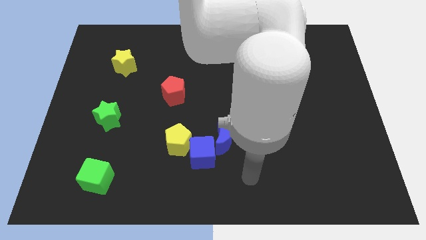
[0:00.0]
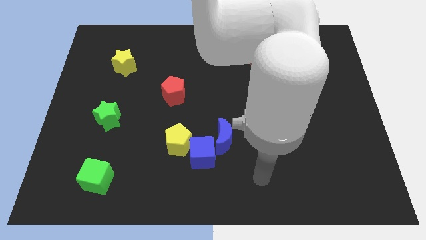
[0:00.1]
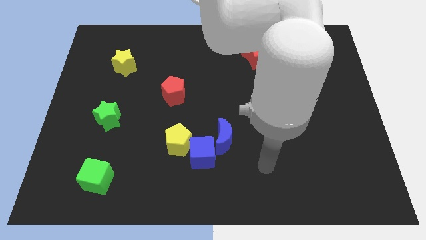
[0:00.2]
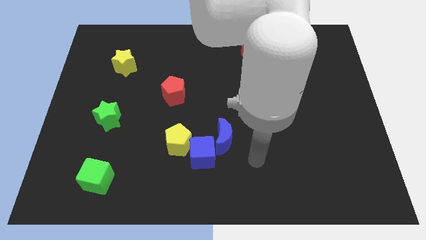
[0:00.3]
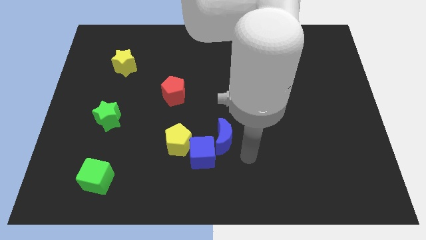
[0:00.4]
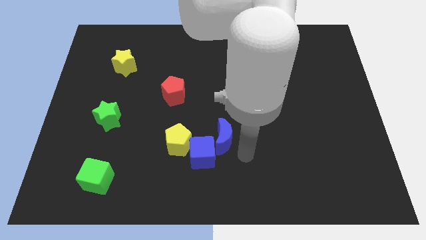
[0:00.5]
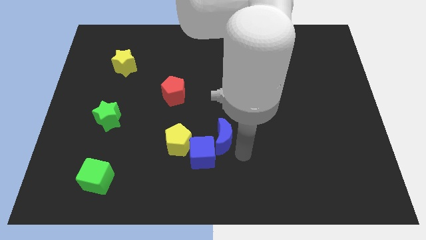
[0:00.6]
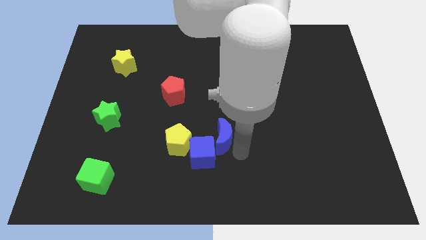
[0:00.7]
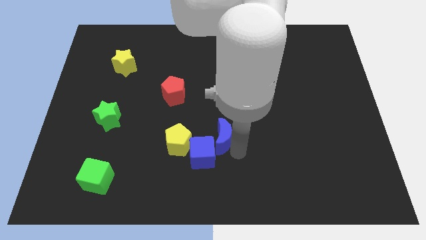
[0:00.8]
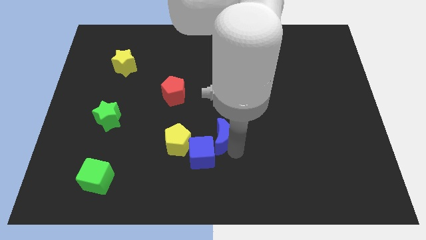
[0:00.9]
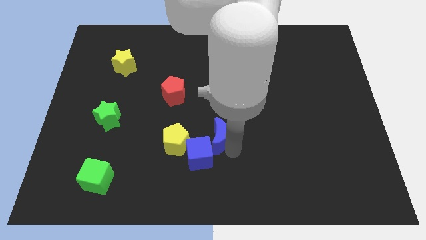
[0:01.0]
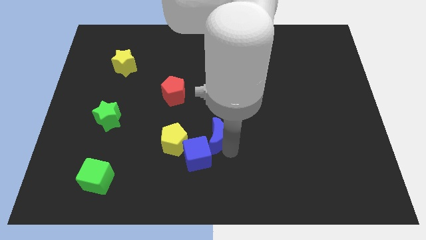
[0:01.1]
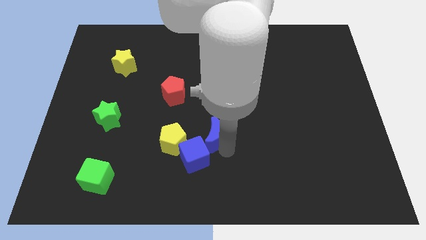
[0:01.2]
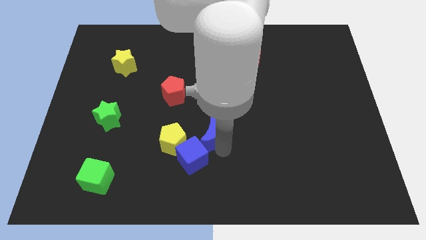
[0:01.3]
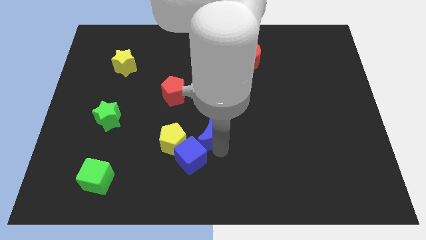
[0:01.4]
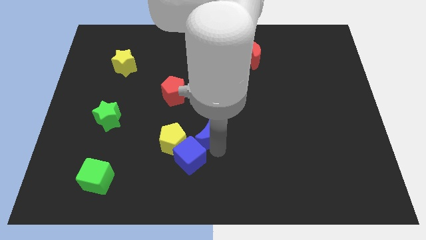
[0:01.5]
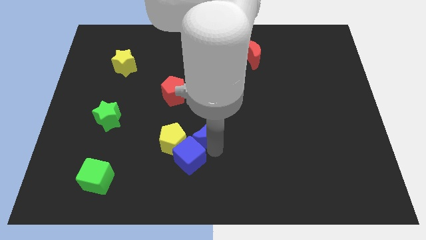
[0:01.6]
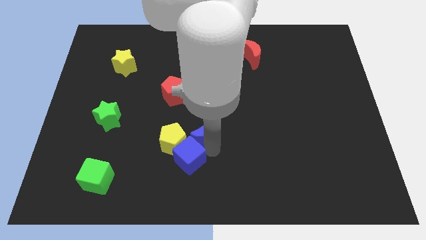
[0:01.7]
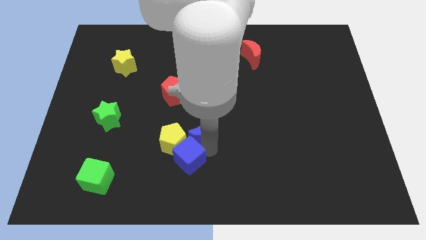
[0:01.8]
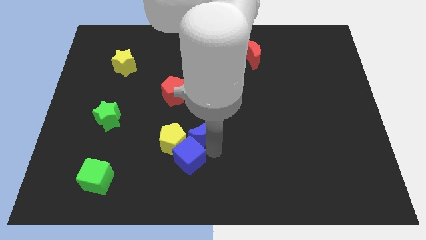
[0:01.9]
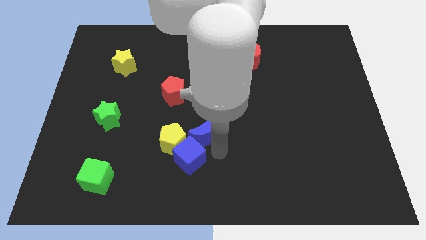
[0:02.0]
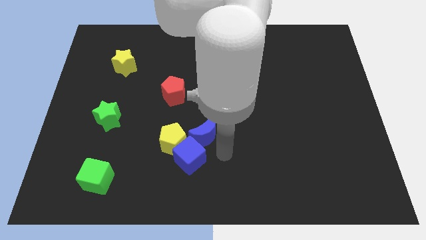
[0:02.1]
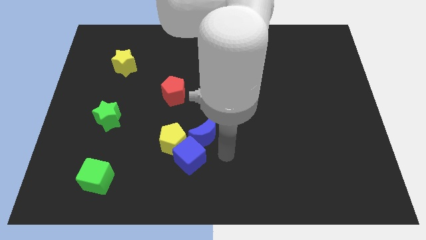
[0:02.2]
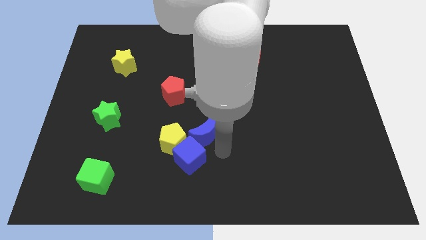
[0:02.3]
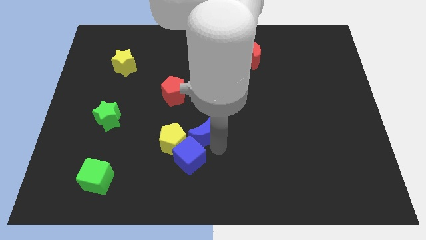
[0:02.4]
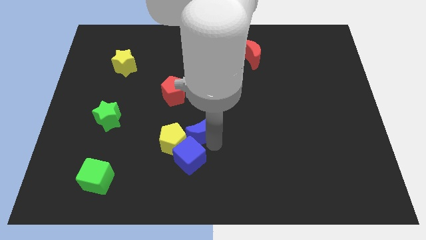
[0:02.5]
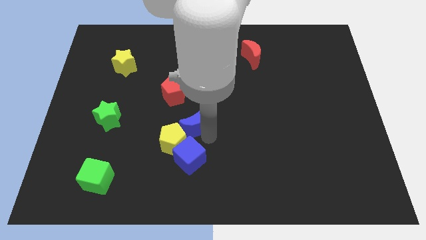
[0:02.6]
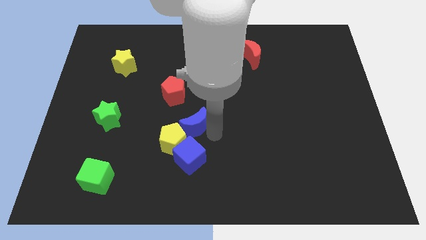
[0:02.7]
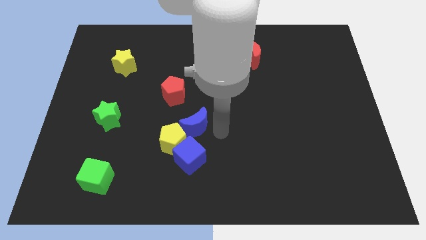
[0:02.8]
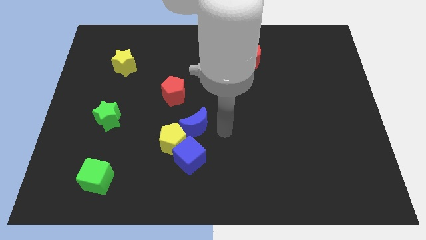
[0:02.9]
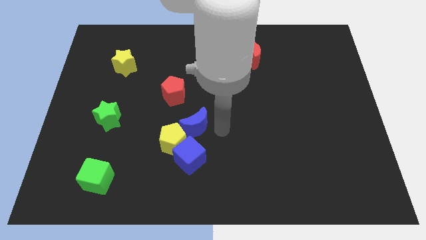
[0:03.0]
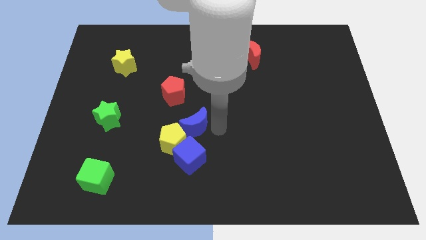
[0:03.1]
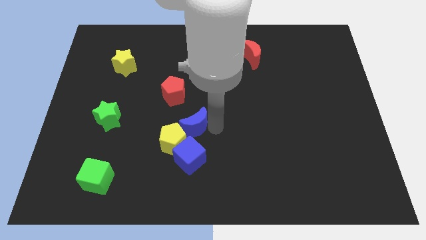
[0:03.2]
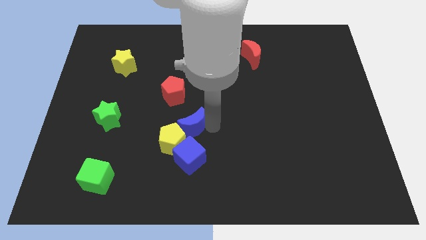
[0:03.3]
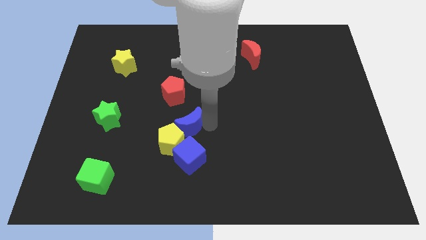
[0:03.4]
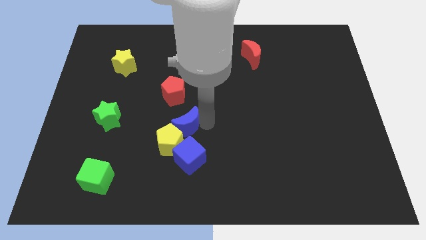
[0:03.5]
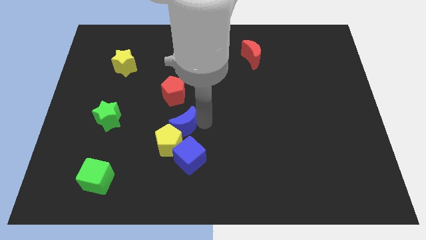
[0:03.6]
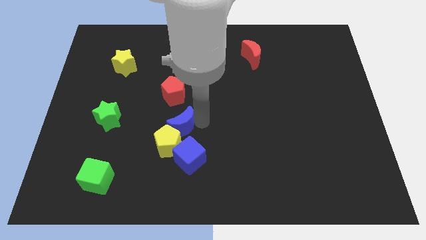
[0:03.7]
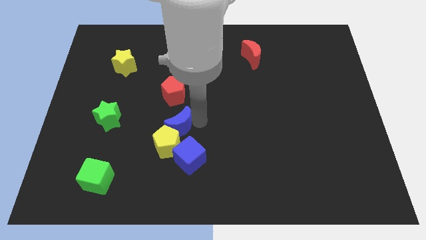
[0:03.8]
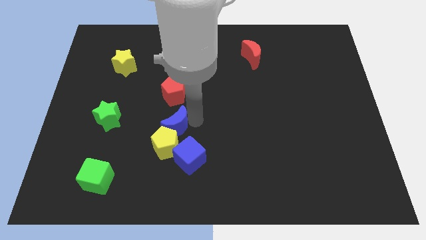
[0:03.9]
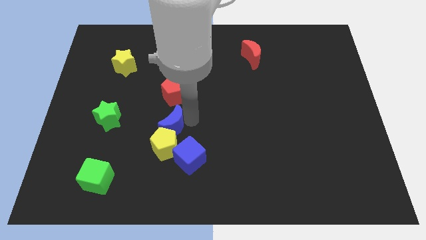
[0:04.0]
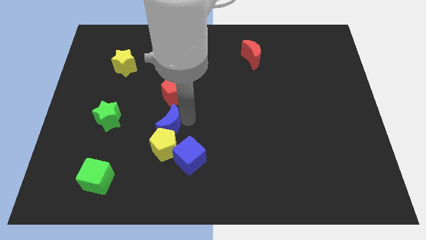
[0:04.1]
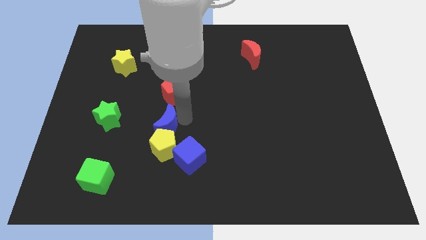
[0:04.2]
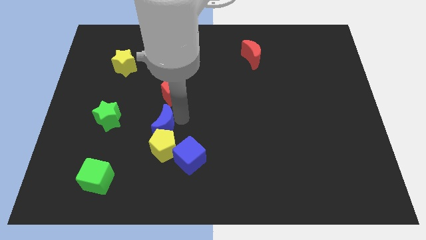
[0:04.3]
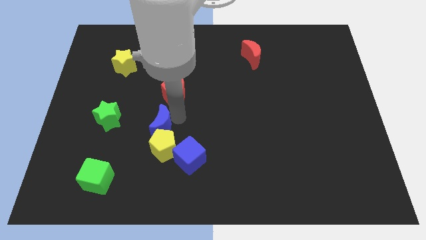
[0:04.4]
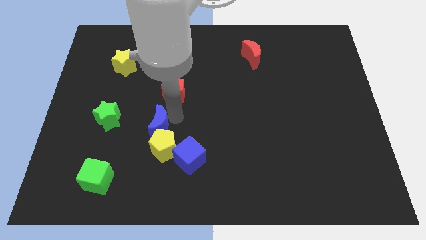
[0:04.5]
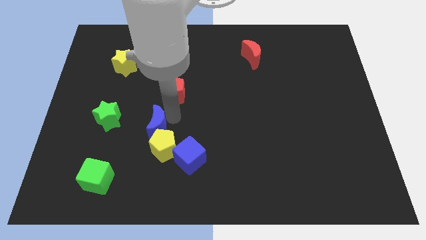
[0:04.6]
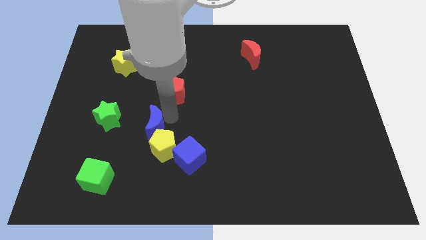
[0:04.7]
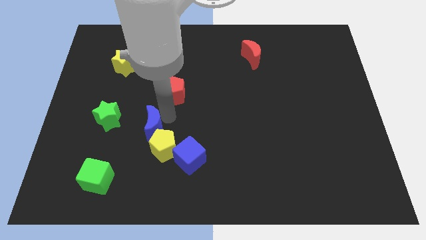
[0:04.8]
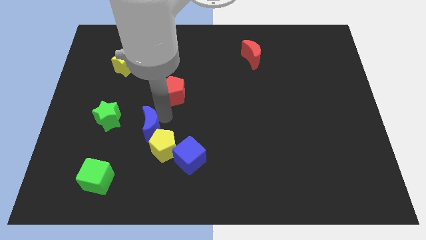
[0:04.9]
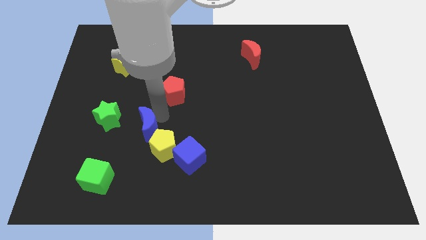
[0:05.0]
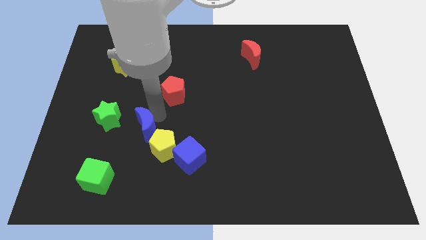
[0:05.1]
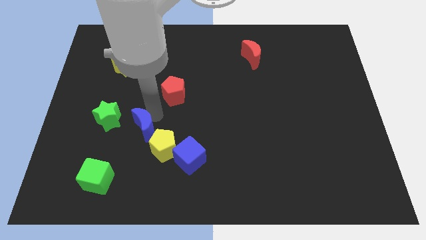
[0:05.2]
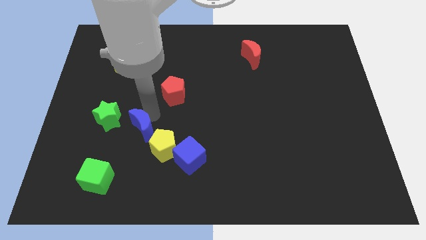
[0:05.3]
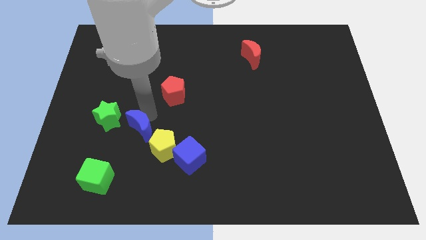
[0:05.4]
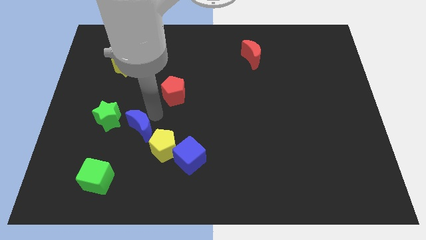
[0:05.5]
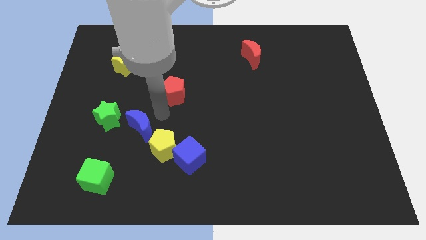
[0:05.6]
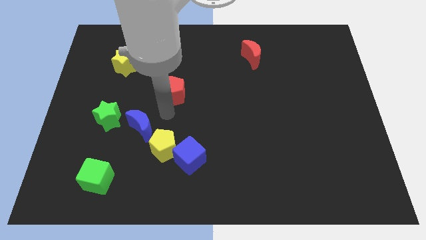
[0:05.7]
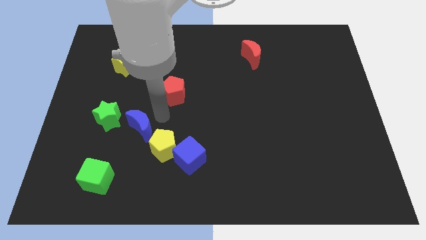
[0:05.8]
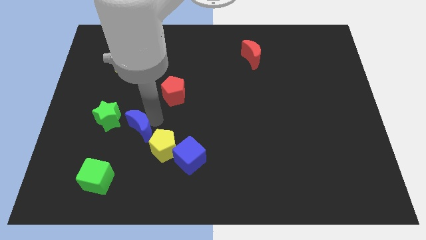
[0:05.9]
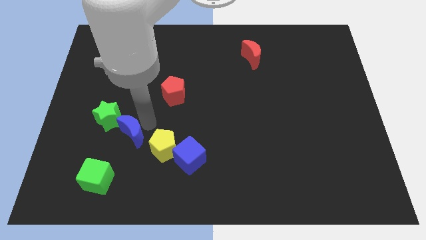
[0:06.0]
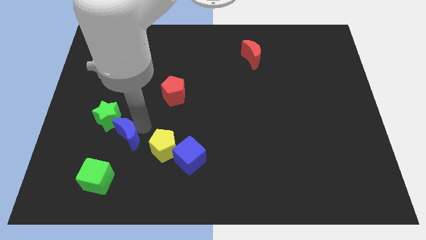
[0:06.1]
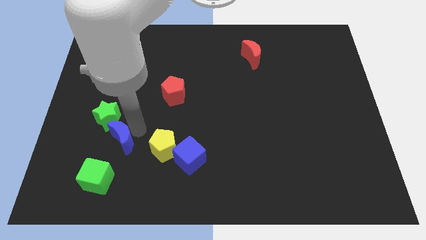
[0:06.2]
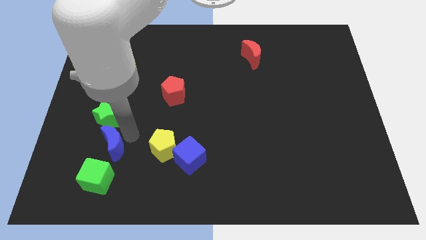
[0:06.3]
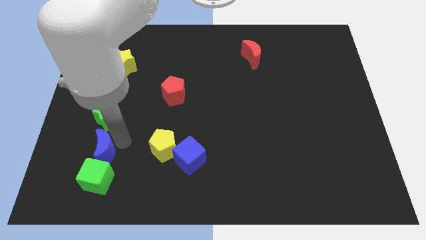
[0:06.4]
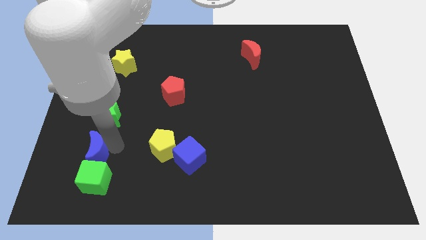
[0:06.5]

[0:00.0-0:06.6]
slide the blue moon diagonally up and to the left of the green cube
